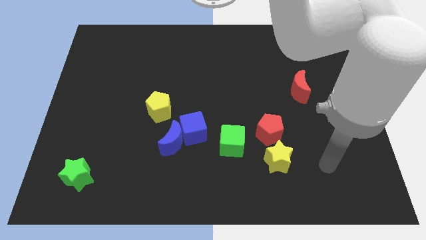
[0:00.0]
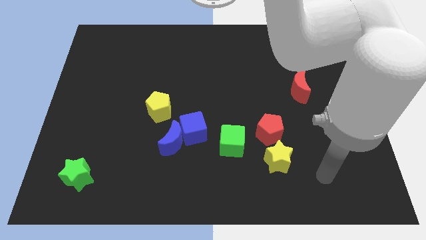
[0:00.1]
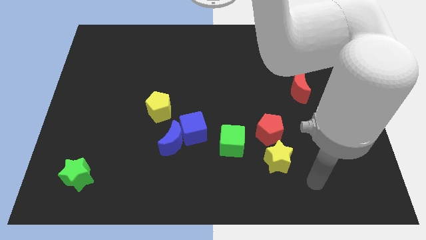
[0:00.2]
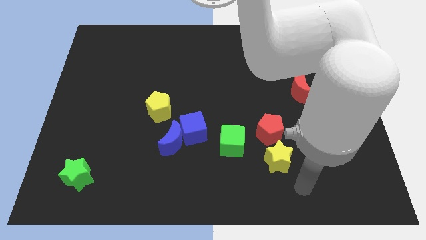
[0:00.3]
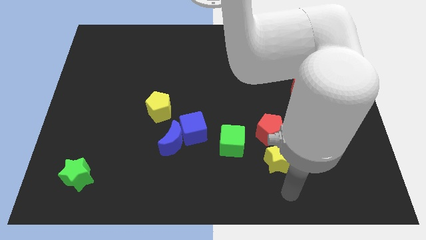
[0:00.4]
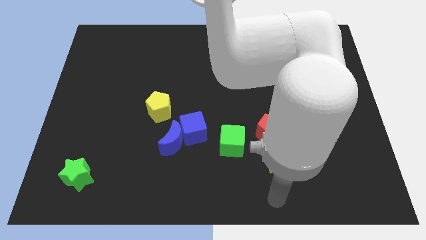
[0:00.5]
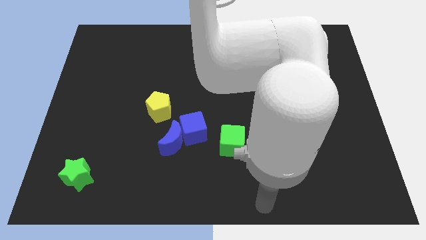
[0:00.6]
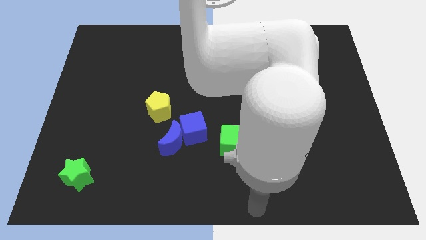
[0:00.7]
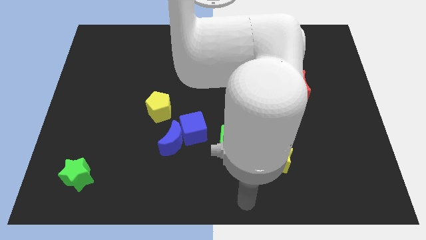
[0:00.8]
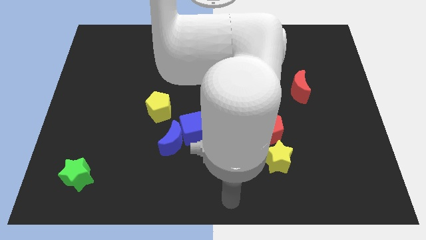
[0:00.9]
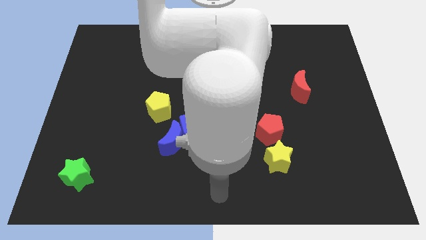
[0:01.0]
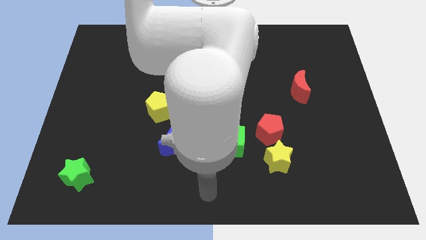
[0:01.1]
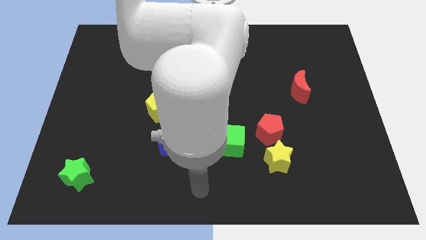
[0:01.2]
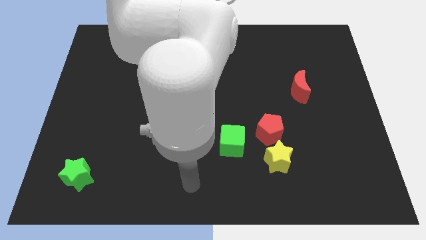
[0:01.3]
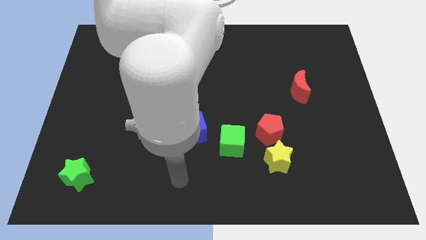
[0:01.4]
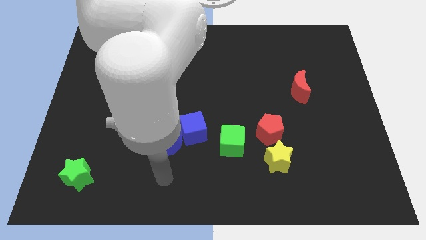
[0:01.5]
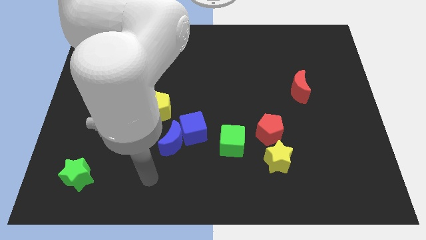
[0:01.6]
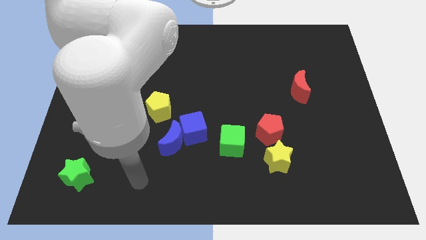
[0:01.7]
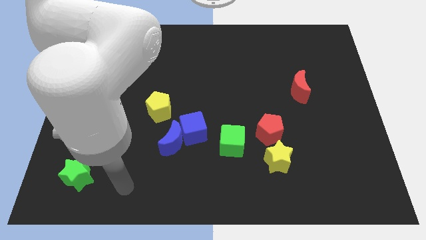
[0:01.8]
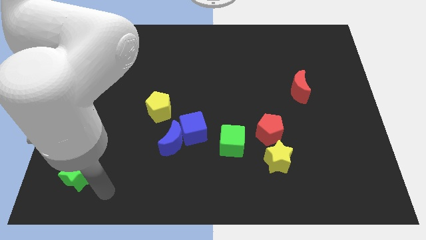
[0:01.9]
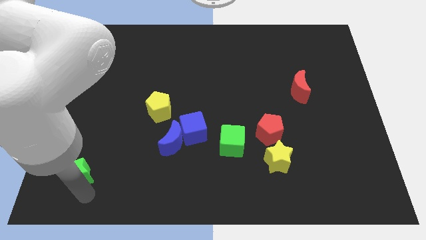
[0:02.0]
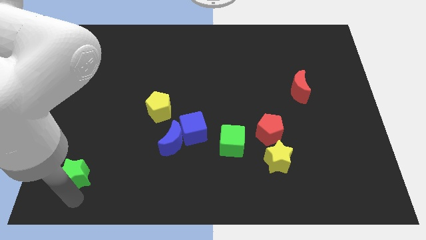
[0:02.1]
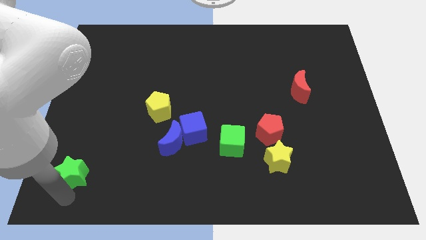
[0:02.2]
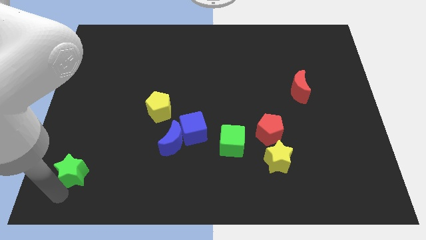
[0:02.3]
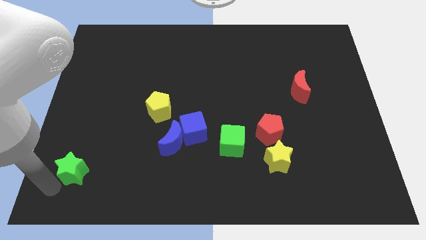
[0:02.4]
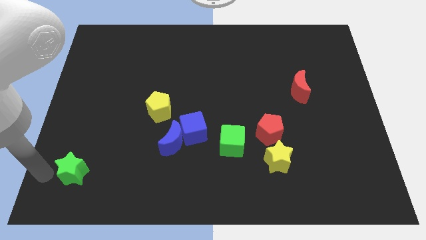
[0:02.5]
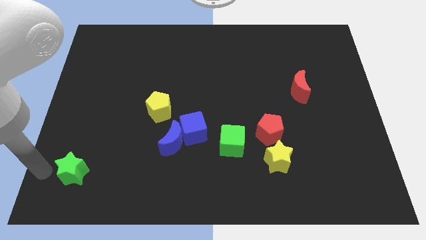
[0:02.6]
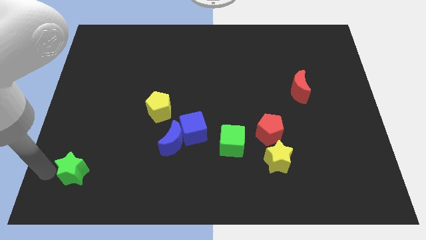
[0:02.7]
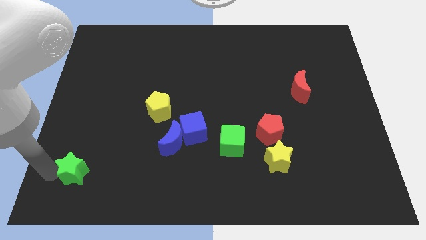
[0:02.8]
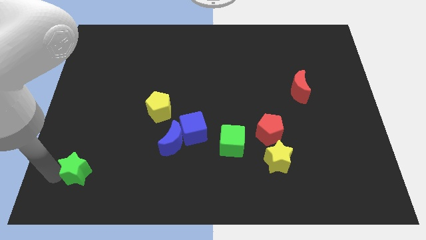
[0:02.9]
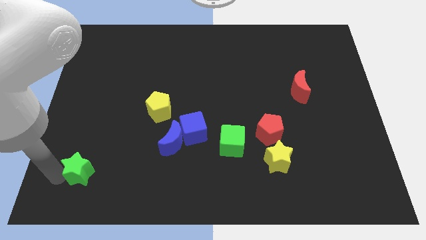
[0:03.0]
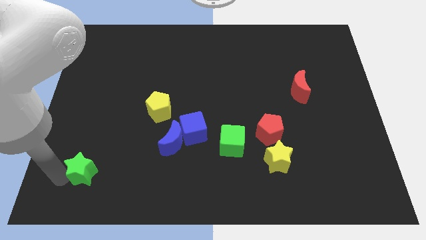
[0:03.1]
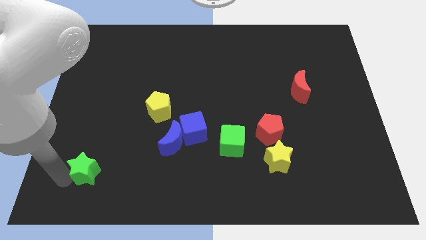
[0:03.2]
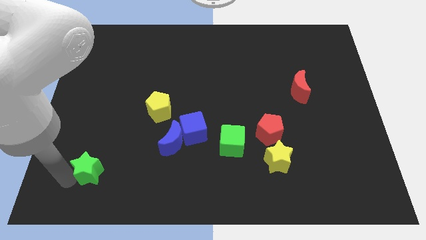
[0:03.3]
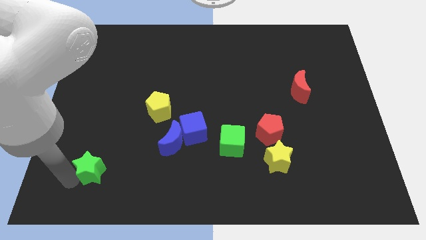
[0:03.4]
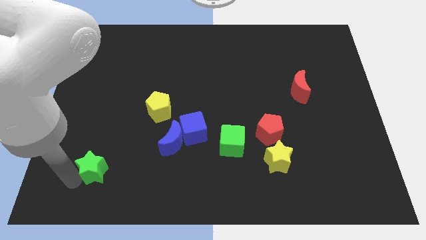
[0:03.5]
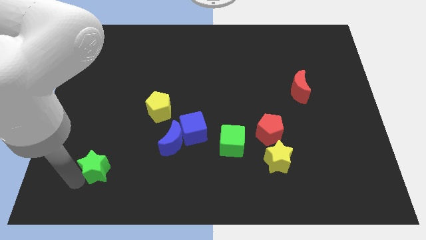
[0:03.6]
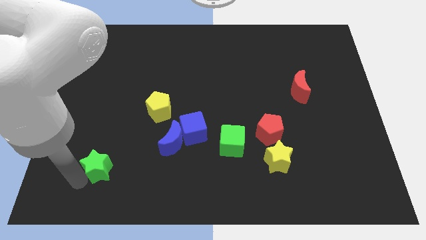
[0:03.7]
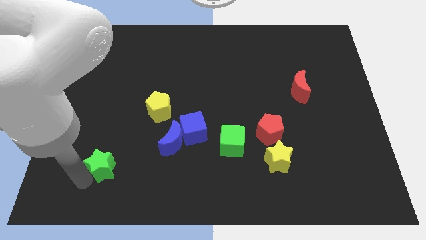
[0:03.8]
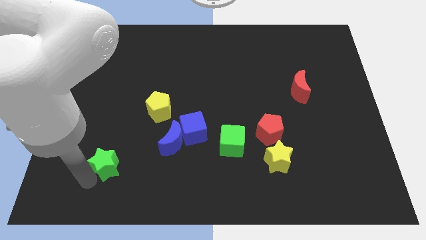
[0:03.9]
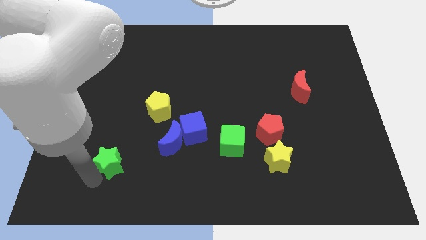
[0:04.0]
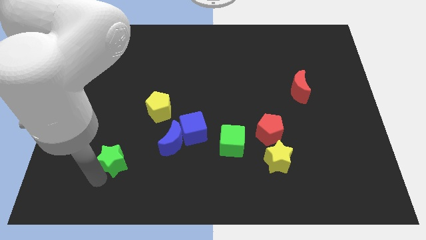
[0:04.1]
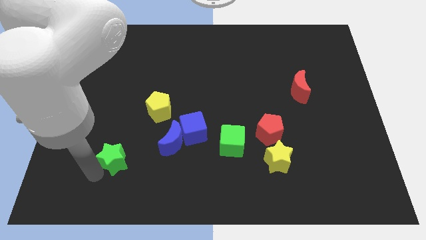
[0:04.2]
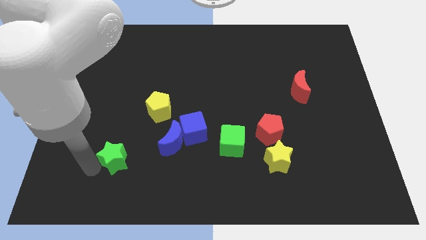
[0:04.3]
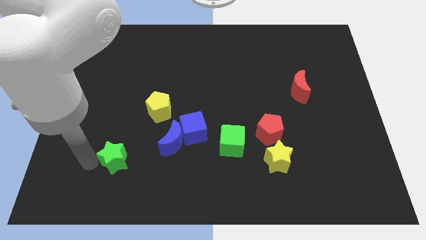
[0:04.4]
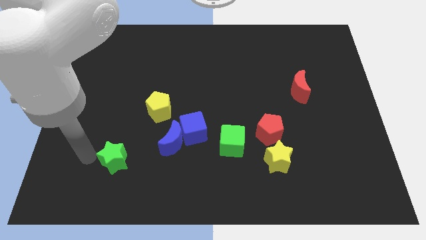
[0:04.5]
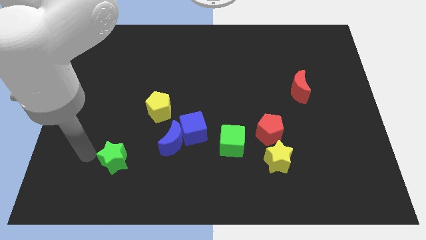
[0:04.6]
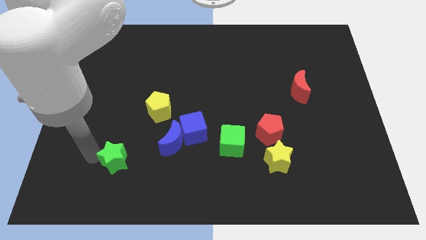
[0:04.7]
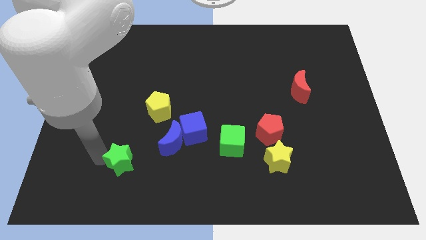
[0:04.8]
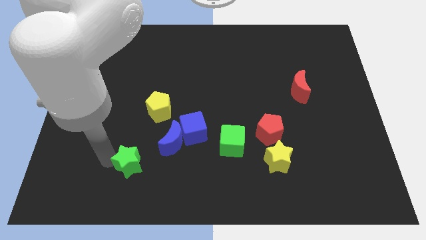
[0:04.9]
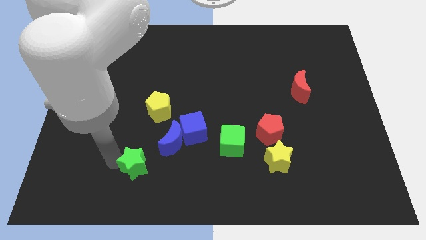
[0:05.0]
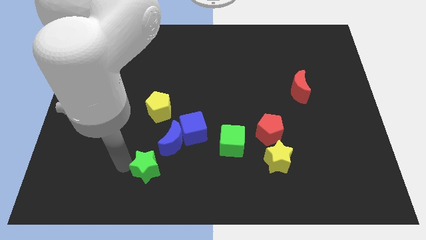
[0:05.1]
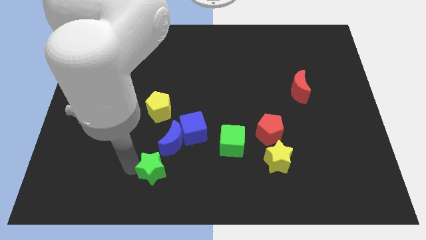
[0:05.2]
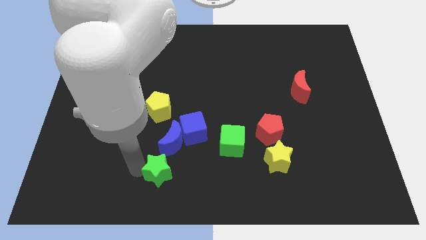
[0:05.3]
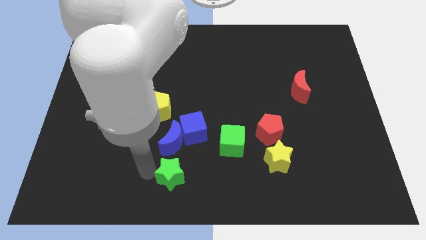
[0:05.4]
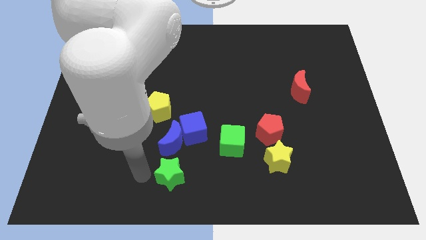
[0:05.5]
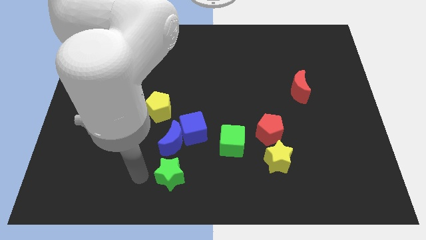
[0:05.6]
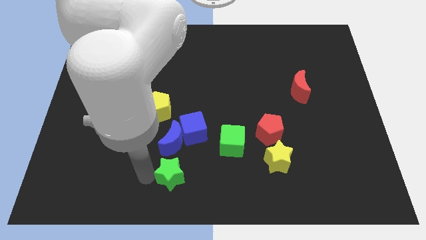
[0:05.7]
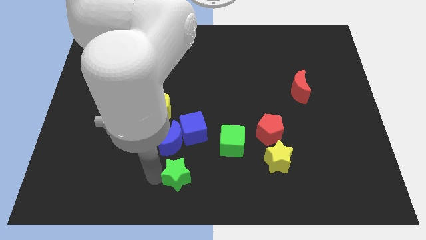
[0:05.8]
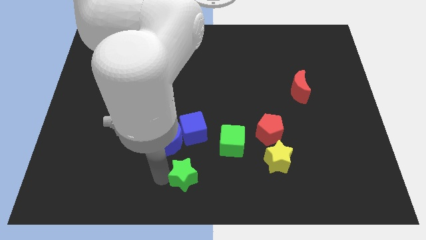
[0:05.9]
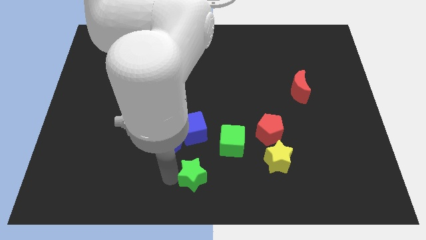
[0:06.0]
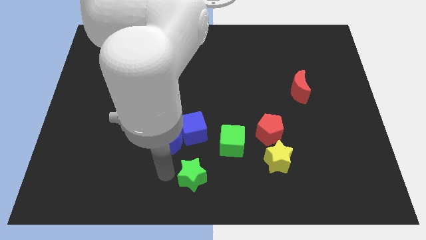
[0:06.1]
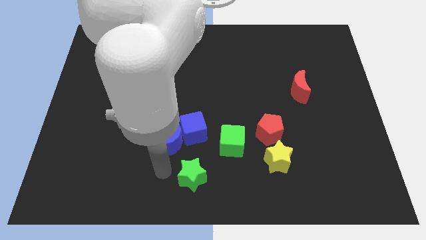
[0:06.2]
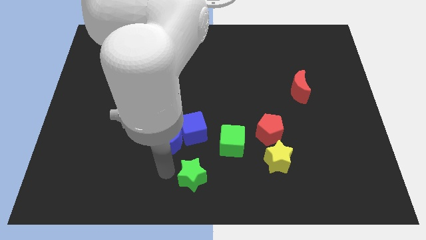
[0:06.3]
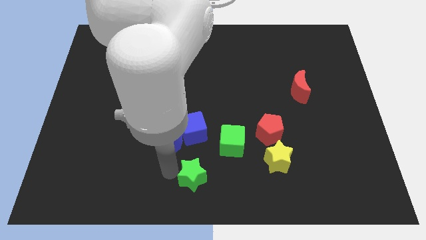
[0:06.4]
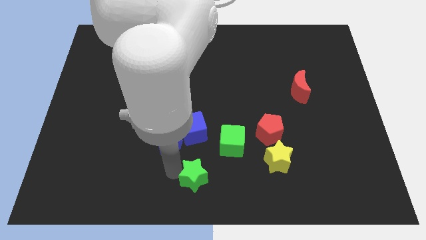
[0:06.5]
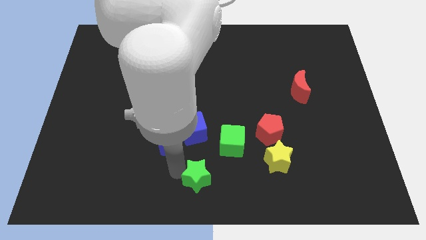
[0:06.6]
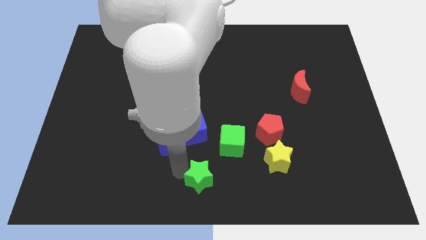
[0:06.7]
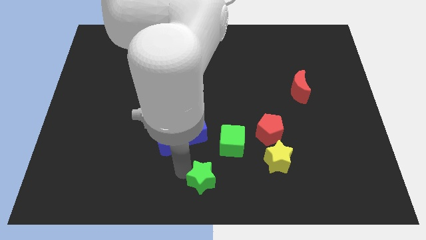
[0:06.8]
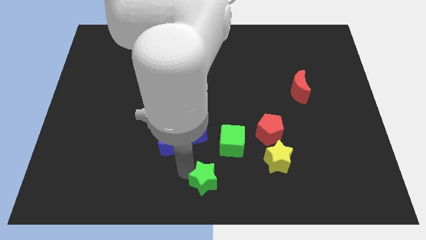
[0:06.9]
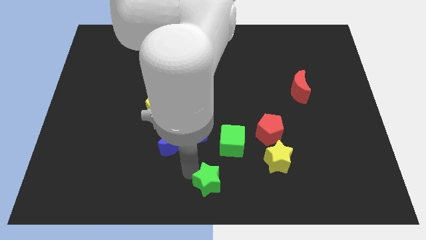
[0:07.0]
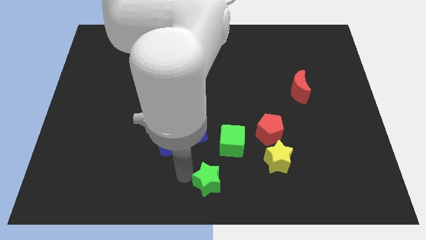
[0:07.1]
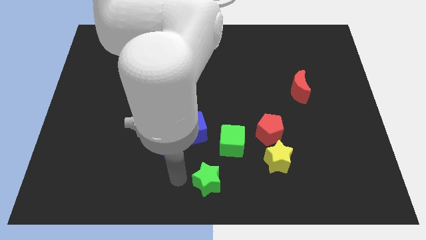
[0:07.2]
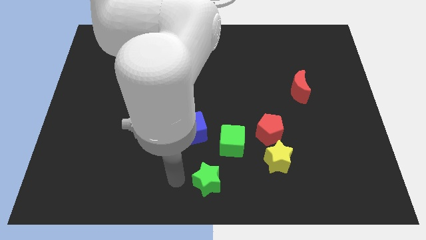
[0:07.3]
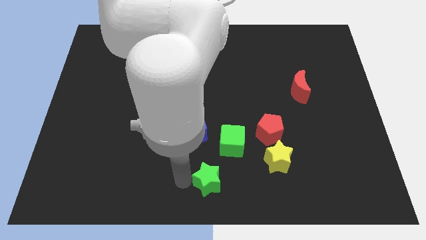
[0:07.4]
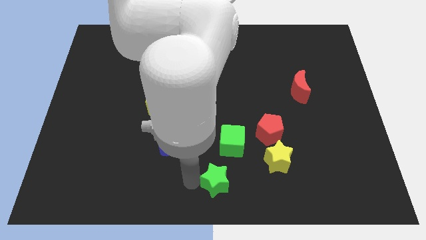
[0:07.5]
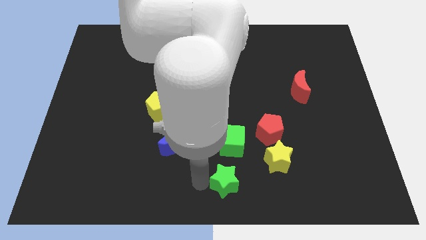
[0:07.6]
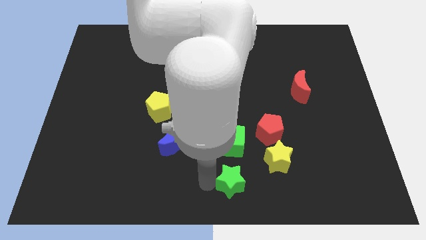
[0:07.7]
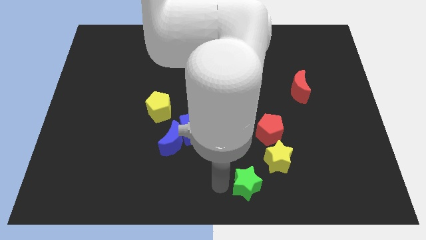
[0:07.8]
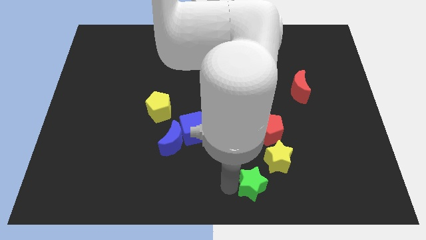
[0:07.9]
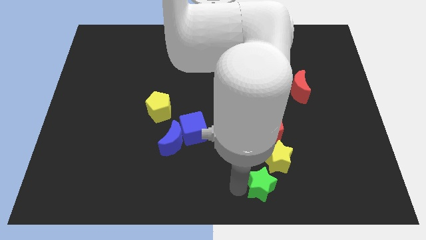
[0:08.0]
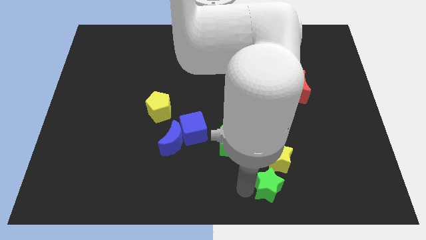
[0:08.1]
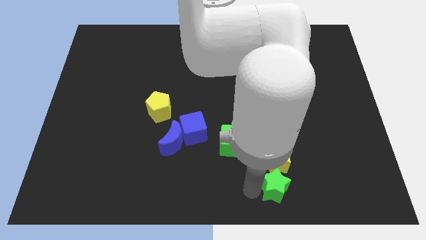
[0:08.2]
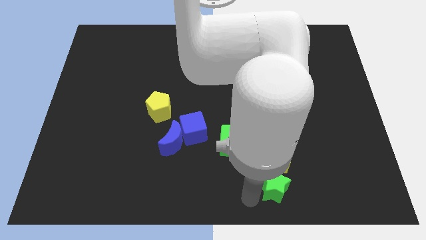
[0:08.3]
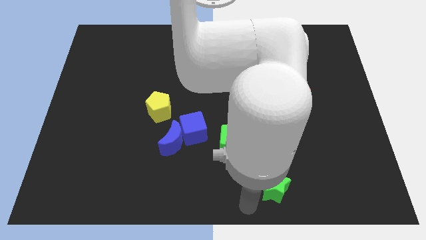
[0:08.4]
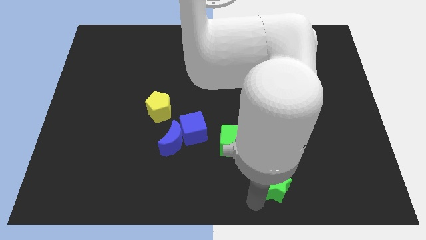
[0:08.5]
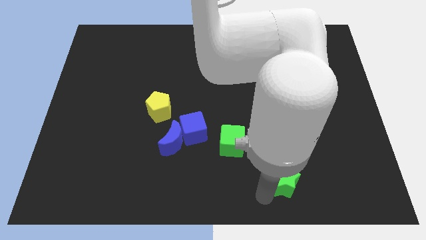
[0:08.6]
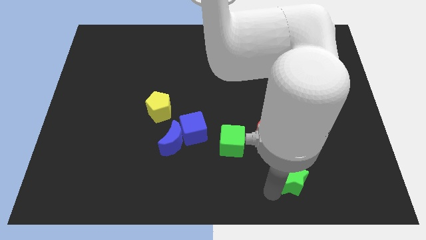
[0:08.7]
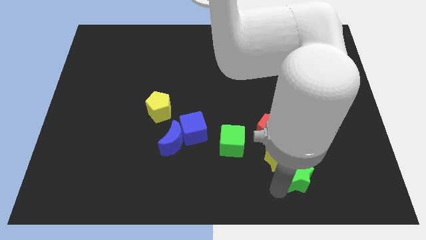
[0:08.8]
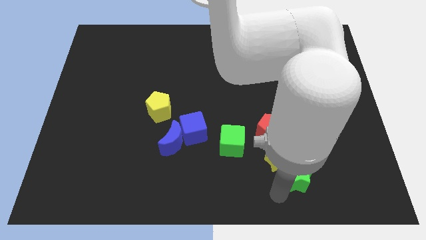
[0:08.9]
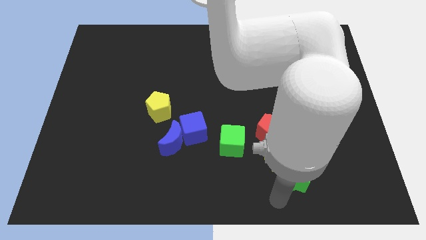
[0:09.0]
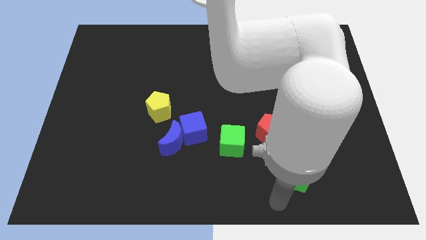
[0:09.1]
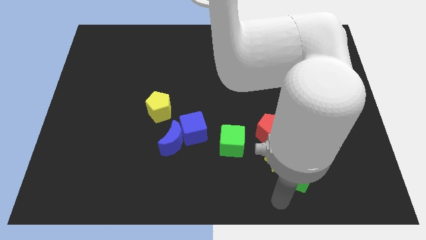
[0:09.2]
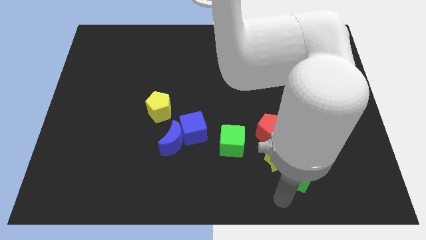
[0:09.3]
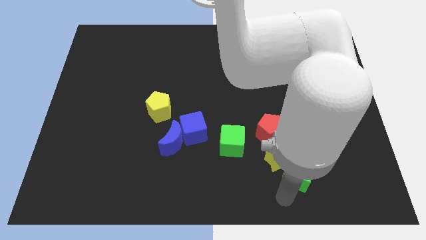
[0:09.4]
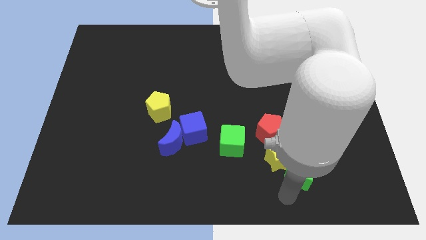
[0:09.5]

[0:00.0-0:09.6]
slide the green star right of the yellow star
